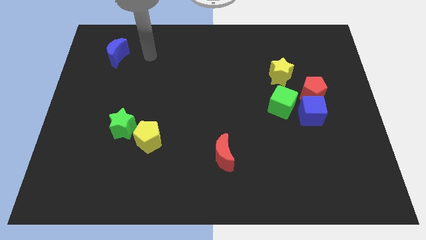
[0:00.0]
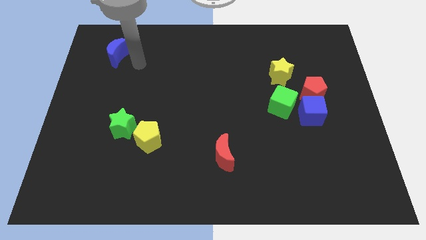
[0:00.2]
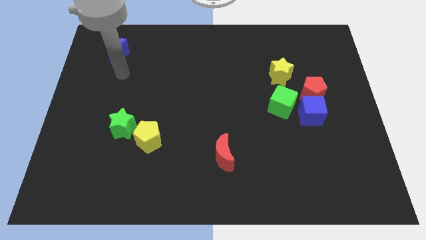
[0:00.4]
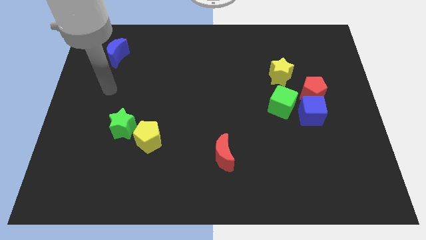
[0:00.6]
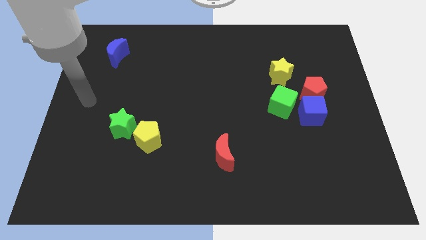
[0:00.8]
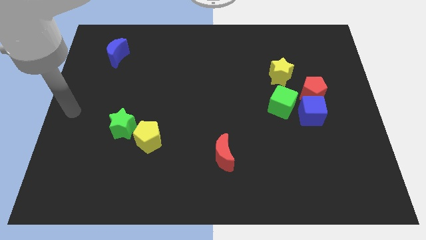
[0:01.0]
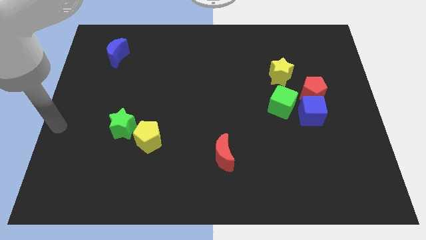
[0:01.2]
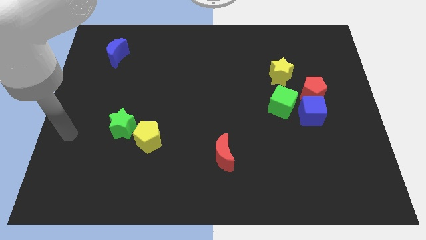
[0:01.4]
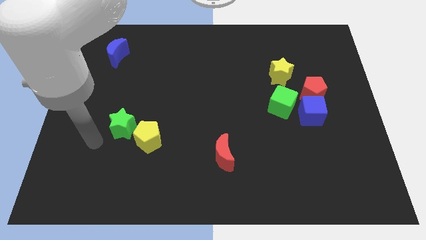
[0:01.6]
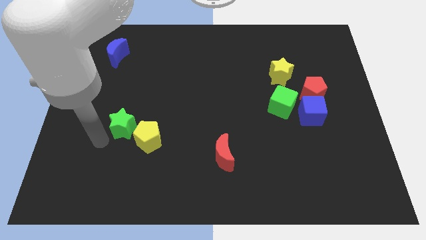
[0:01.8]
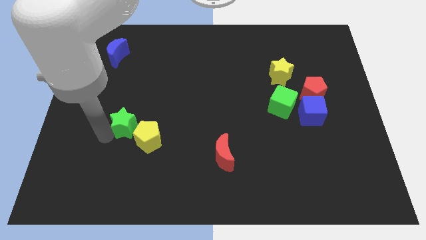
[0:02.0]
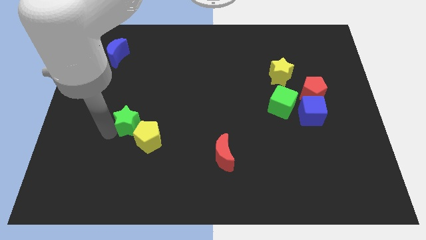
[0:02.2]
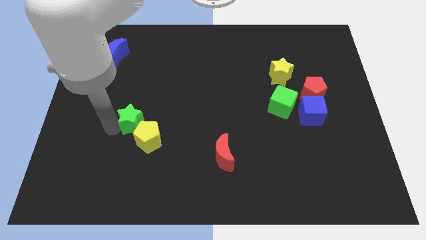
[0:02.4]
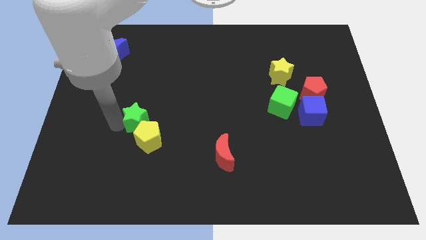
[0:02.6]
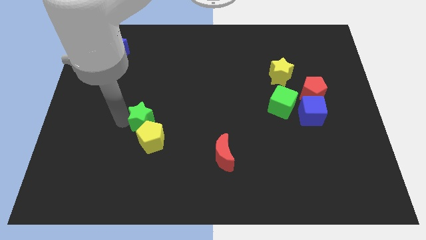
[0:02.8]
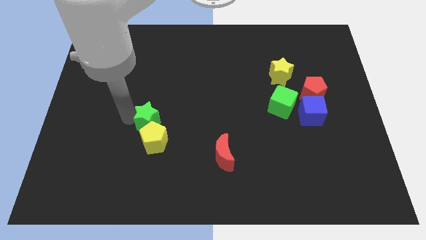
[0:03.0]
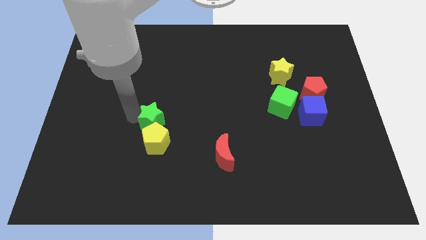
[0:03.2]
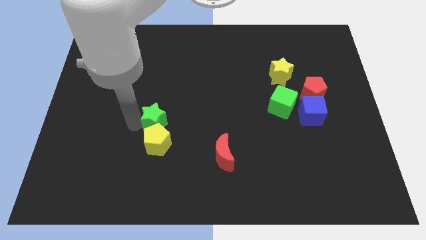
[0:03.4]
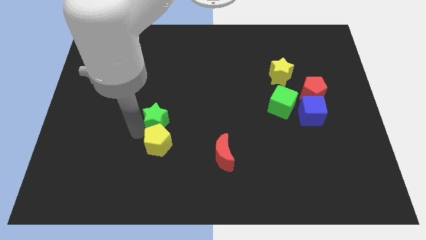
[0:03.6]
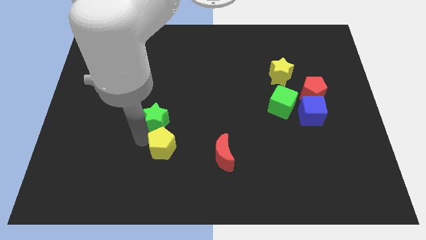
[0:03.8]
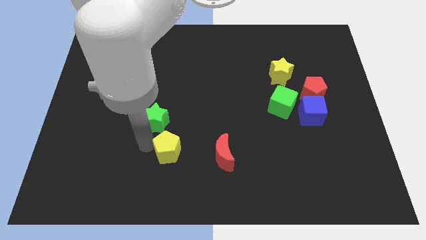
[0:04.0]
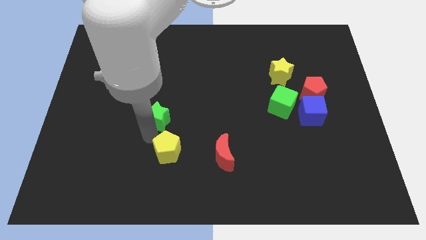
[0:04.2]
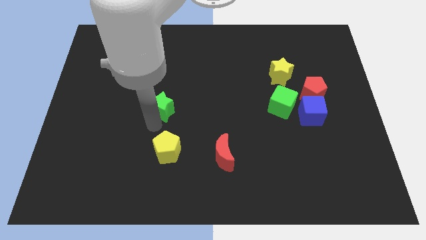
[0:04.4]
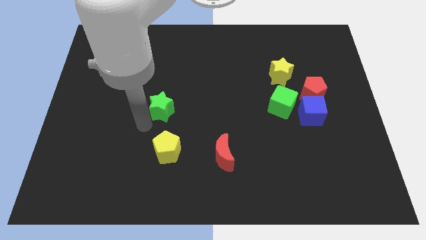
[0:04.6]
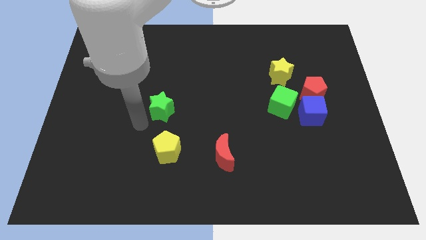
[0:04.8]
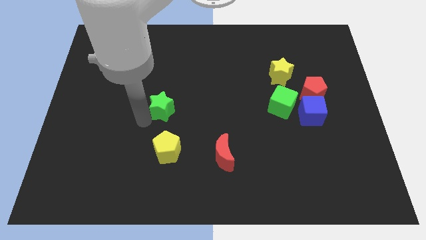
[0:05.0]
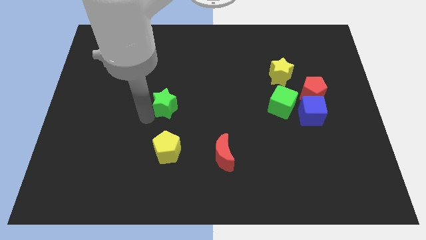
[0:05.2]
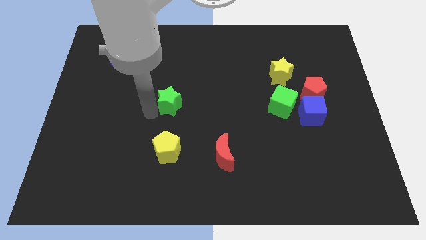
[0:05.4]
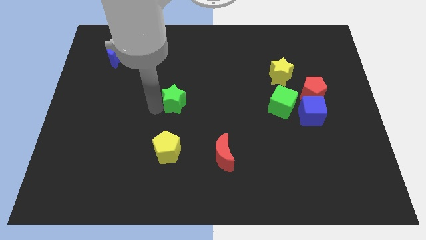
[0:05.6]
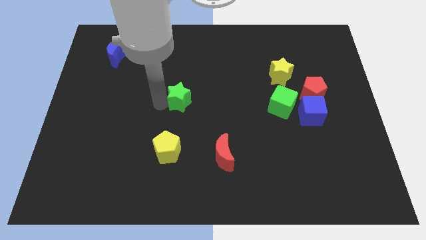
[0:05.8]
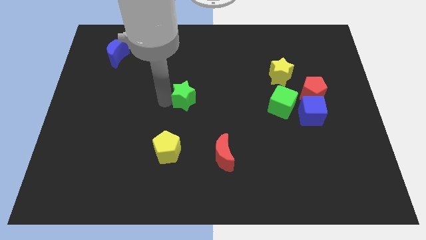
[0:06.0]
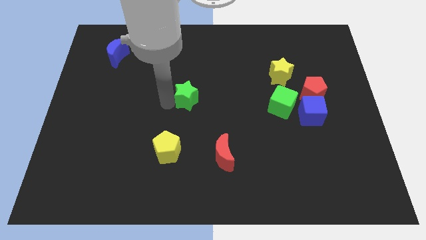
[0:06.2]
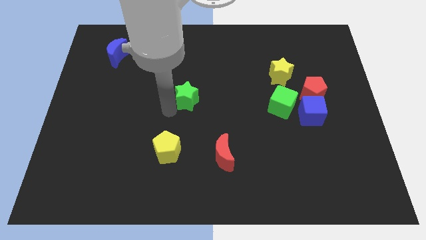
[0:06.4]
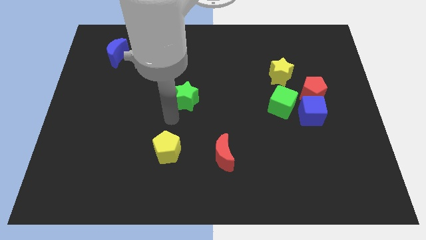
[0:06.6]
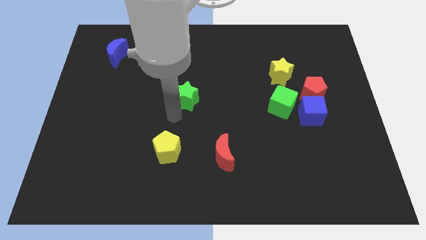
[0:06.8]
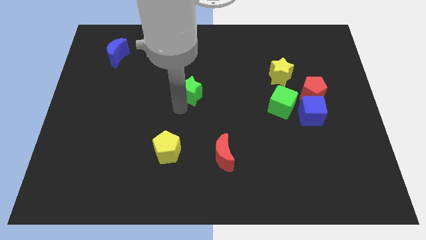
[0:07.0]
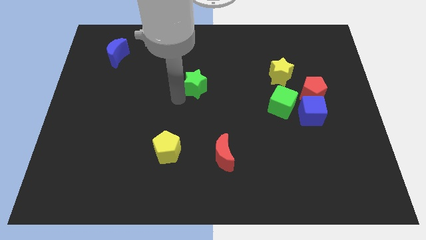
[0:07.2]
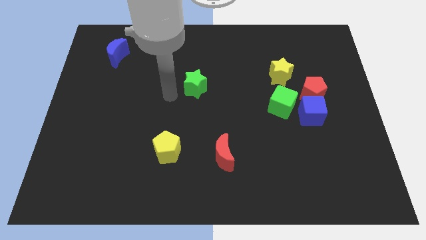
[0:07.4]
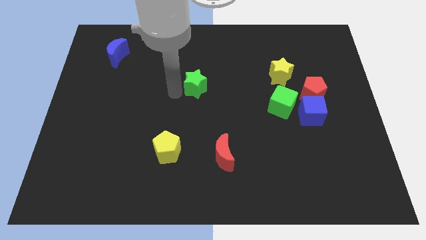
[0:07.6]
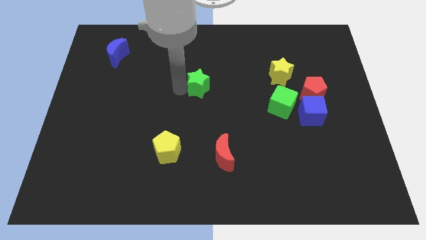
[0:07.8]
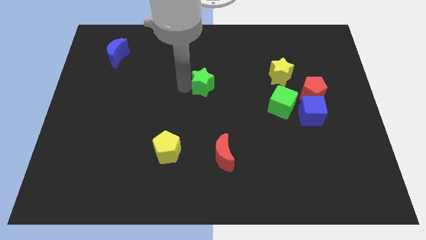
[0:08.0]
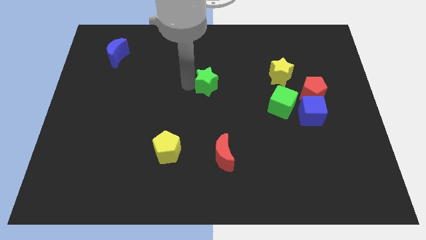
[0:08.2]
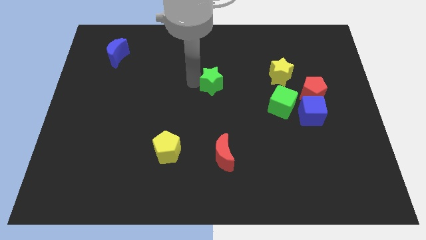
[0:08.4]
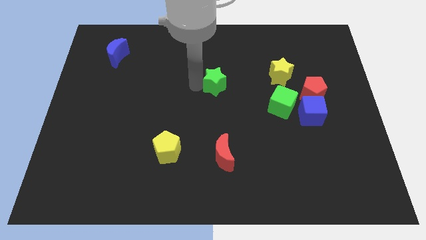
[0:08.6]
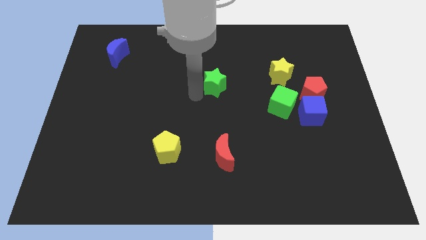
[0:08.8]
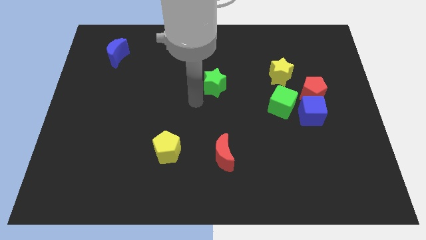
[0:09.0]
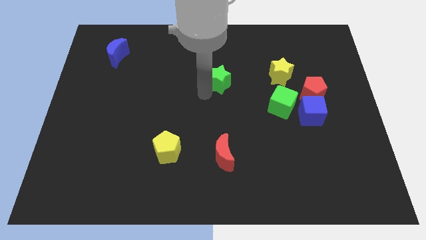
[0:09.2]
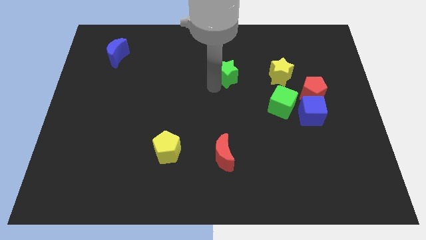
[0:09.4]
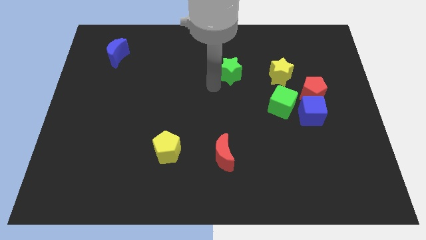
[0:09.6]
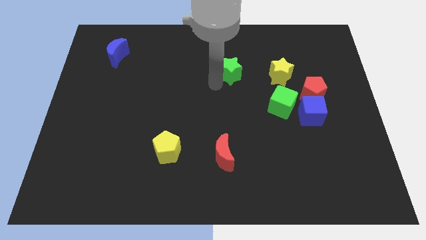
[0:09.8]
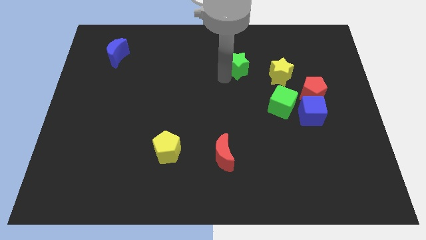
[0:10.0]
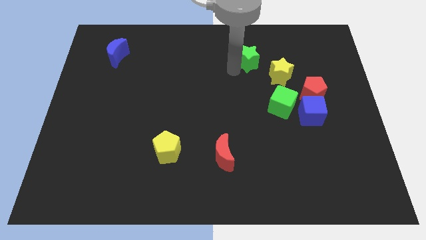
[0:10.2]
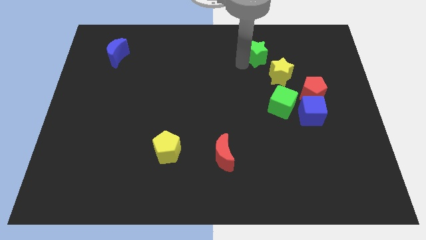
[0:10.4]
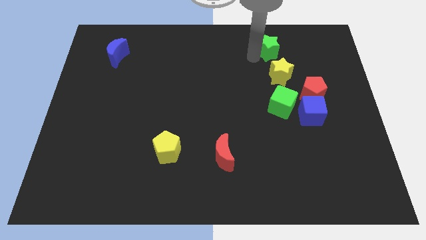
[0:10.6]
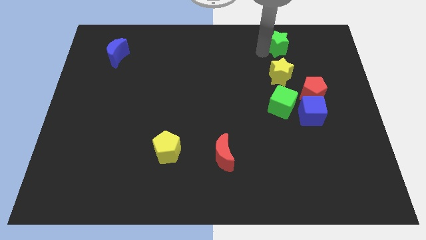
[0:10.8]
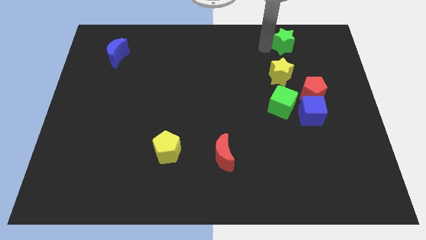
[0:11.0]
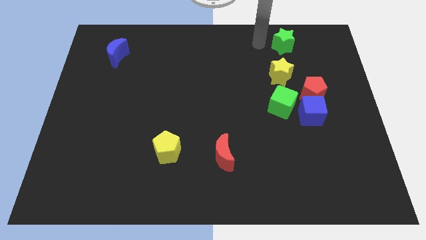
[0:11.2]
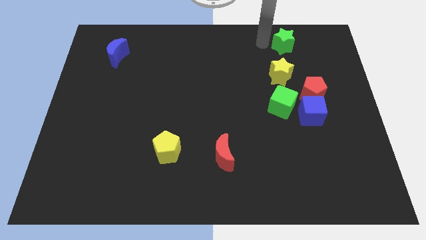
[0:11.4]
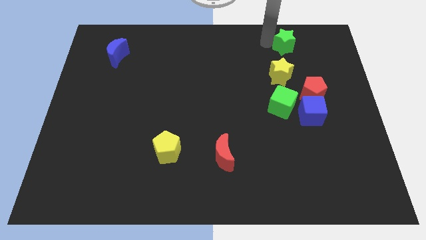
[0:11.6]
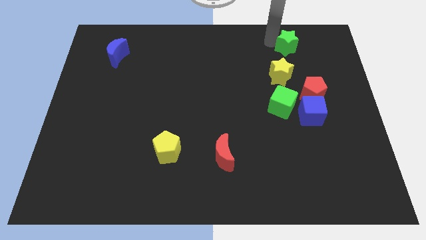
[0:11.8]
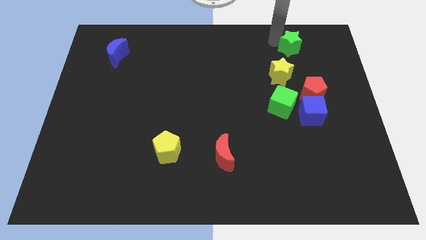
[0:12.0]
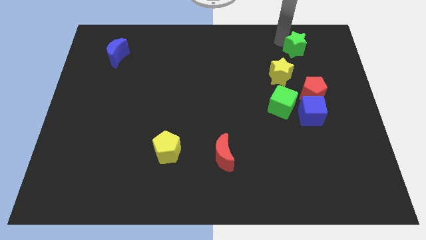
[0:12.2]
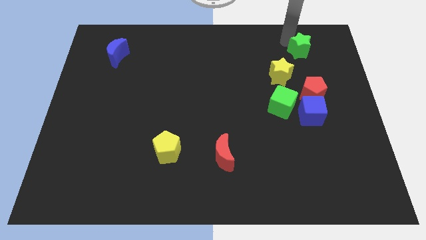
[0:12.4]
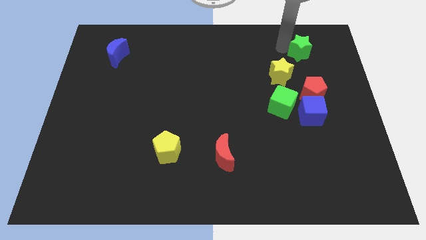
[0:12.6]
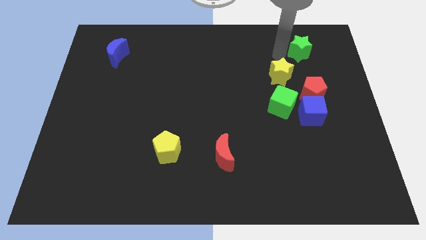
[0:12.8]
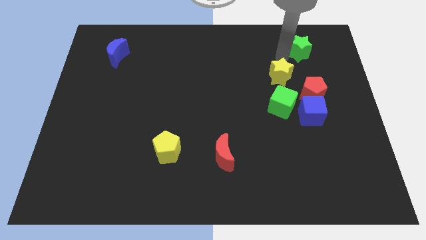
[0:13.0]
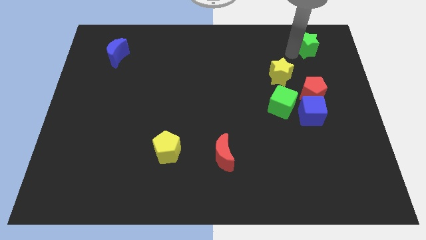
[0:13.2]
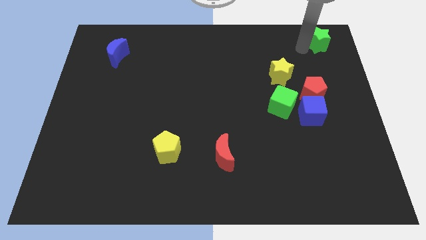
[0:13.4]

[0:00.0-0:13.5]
move the green star to the top right of the board

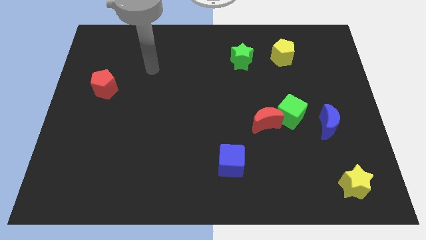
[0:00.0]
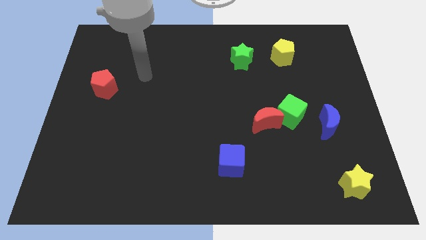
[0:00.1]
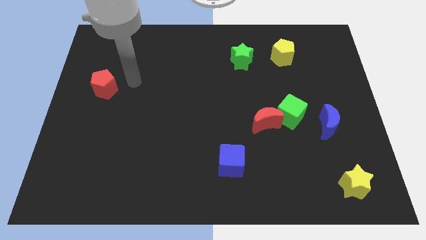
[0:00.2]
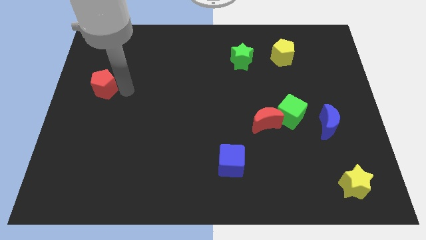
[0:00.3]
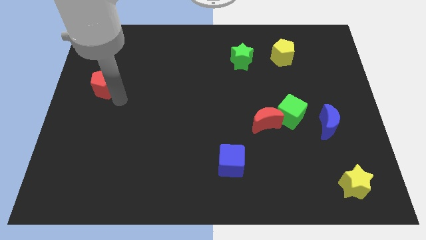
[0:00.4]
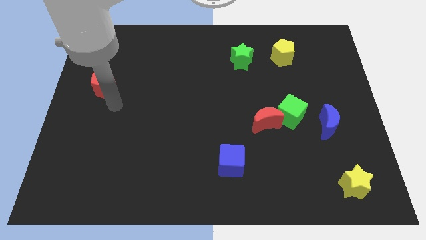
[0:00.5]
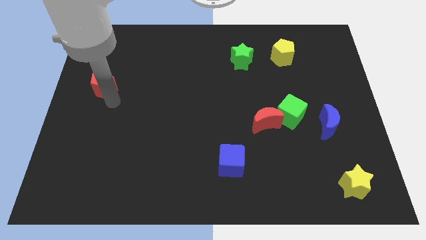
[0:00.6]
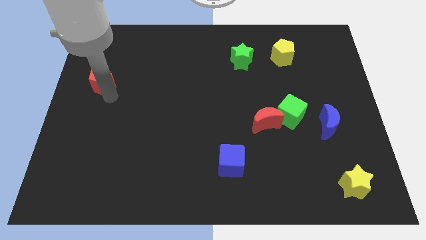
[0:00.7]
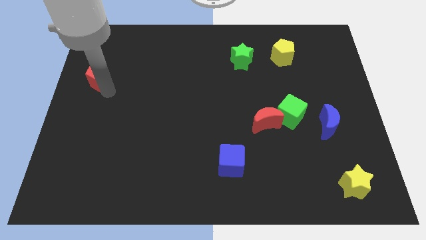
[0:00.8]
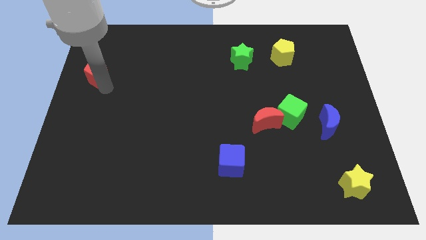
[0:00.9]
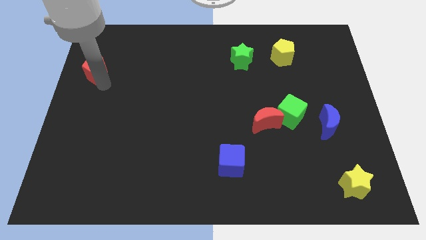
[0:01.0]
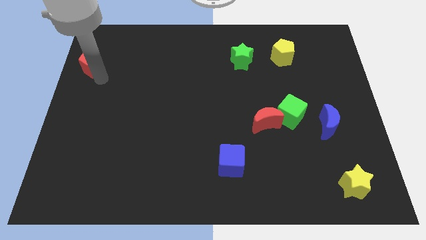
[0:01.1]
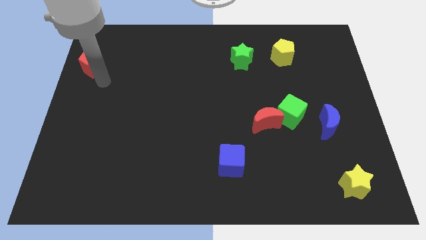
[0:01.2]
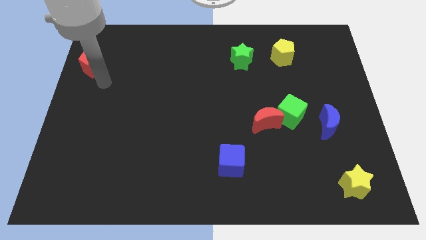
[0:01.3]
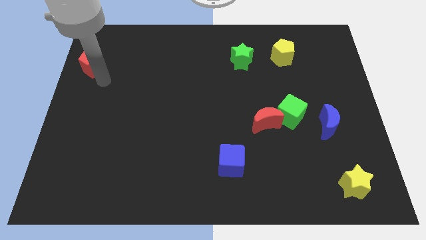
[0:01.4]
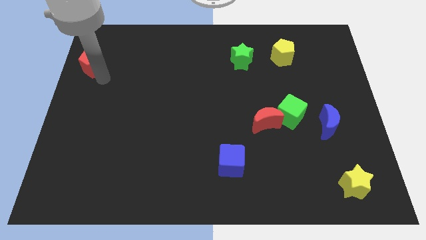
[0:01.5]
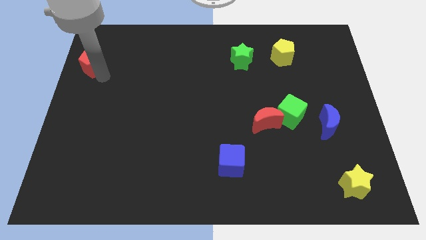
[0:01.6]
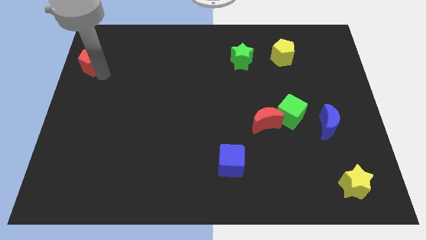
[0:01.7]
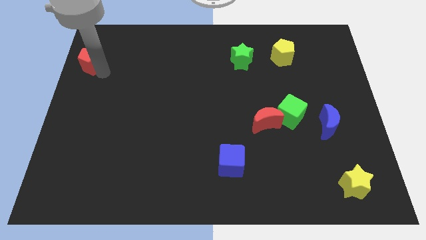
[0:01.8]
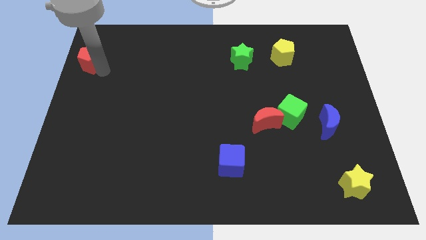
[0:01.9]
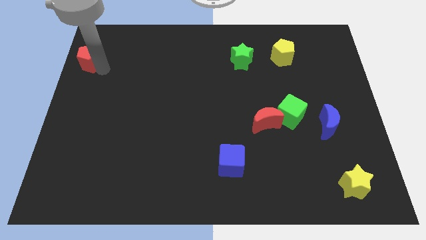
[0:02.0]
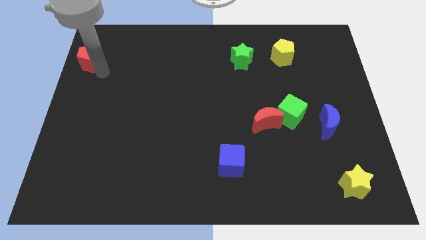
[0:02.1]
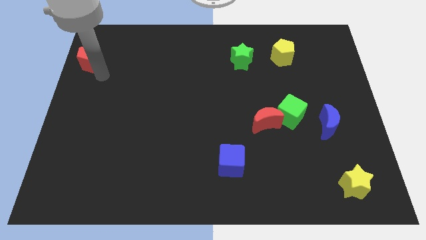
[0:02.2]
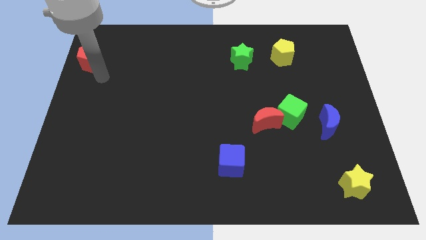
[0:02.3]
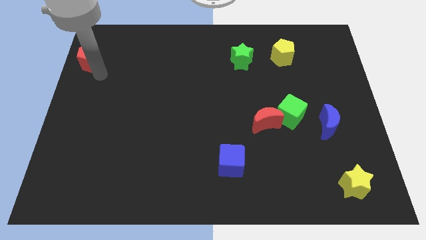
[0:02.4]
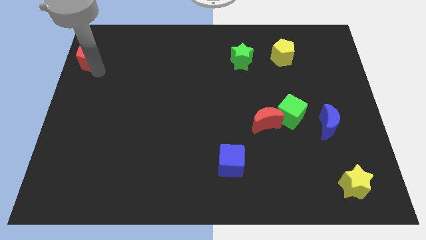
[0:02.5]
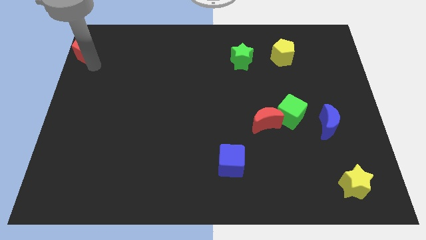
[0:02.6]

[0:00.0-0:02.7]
move the red pentagon to the upper left corner
